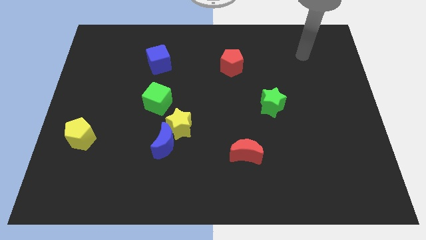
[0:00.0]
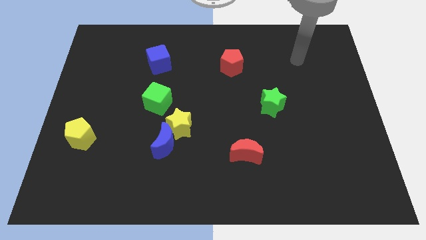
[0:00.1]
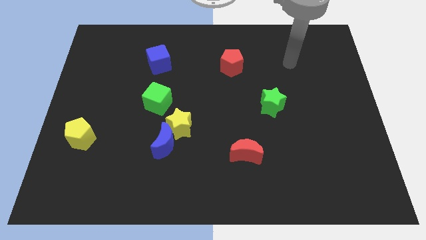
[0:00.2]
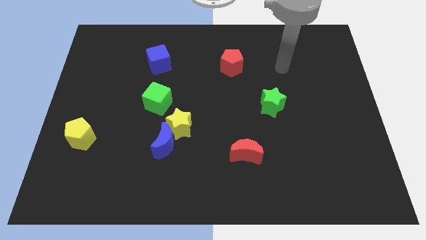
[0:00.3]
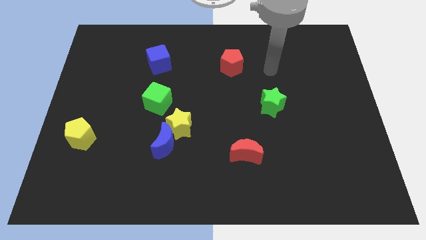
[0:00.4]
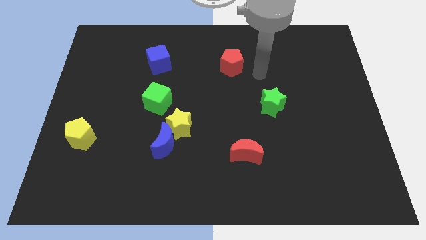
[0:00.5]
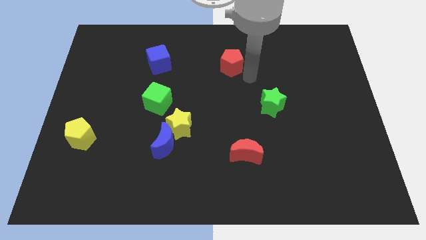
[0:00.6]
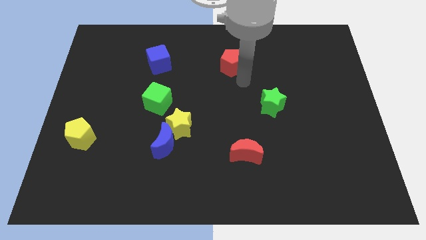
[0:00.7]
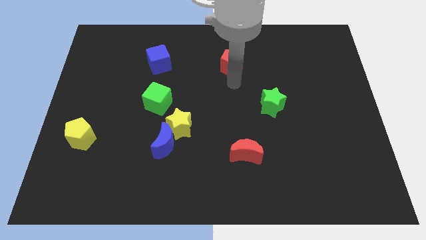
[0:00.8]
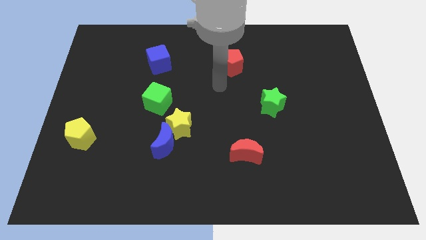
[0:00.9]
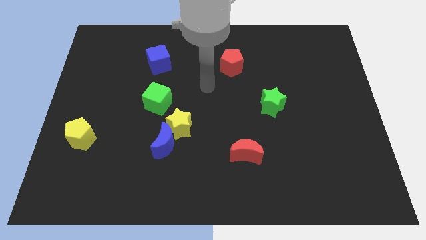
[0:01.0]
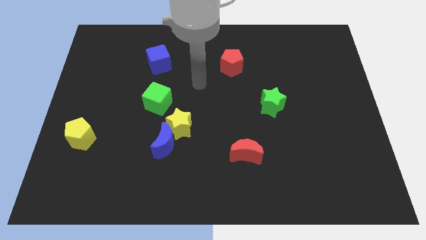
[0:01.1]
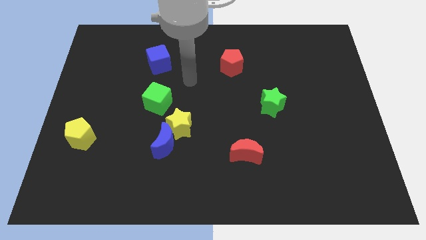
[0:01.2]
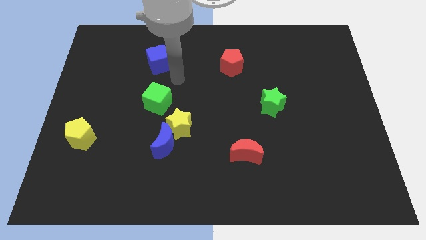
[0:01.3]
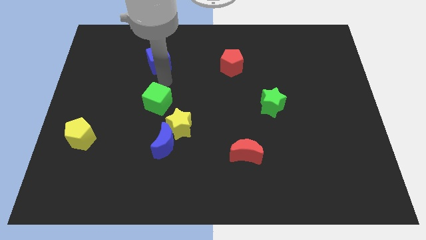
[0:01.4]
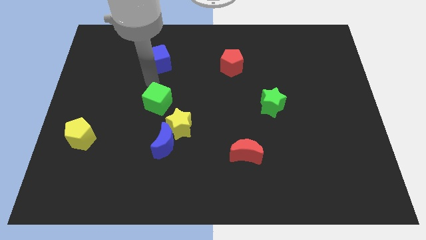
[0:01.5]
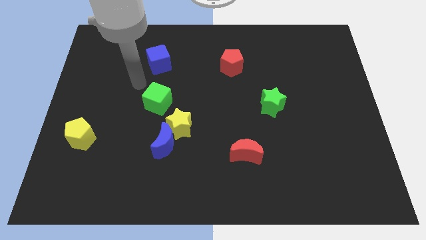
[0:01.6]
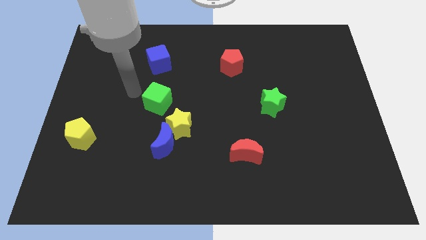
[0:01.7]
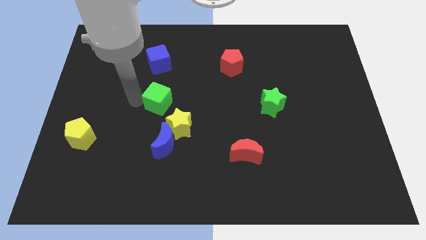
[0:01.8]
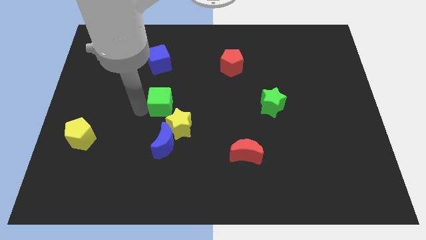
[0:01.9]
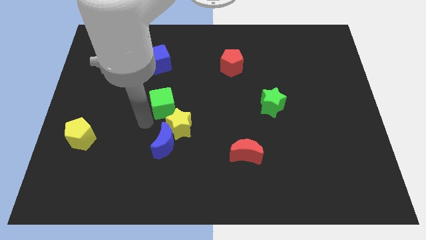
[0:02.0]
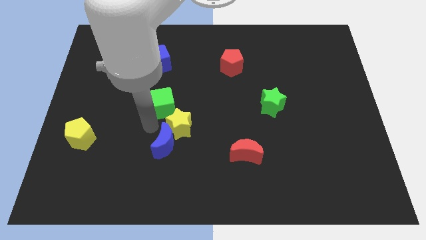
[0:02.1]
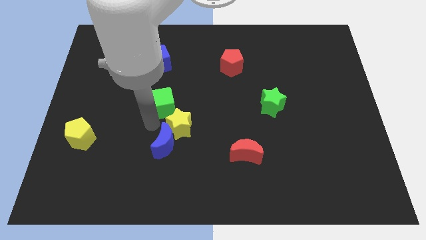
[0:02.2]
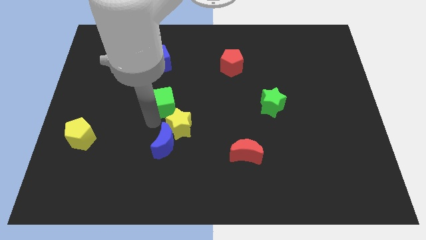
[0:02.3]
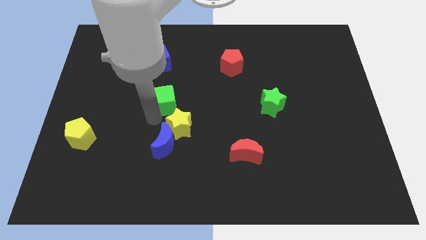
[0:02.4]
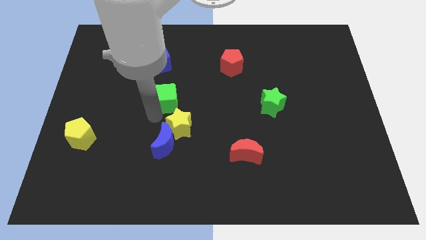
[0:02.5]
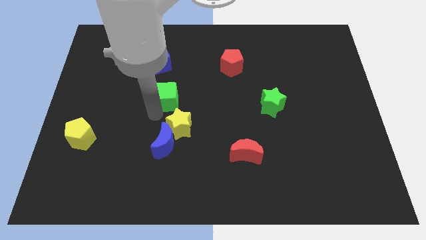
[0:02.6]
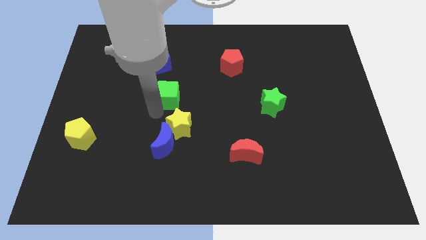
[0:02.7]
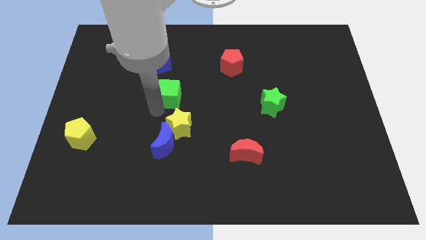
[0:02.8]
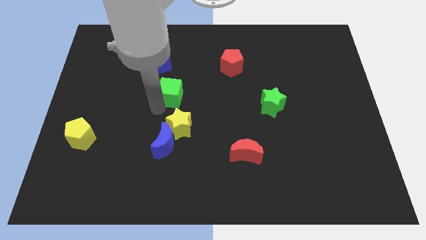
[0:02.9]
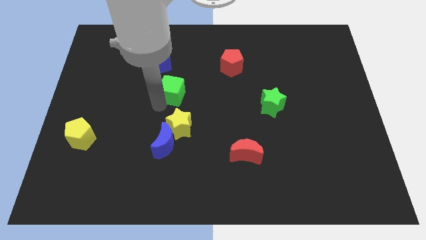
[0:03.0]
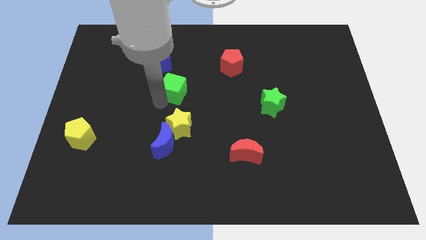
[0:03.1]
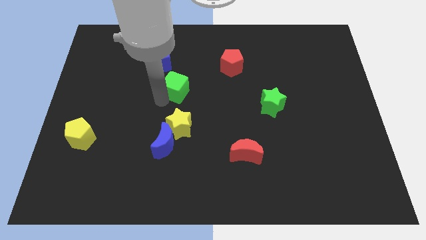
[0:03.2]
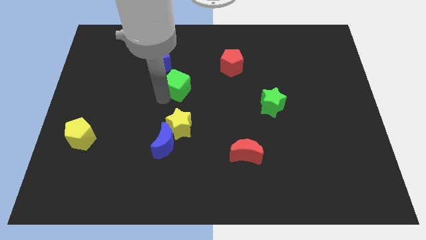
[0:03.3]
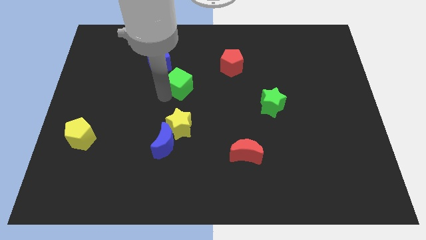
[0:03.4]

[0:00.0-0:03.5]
move the green cube up and to the right diagonally slightly

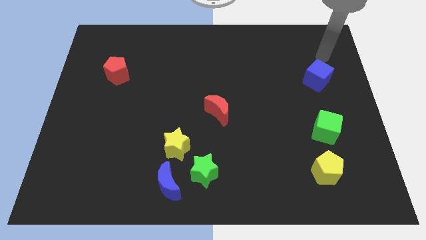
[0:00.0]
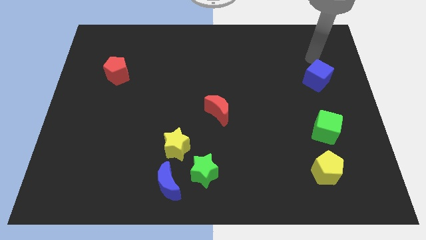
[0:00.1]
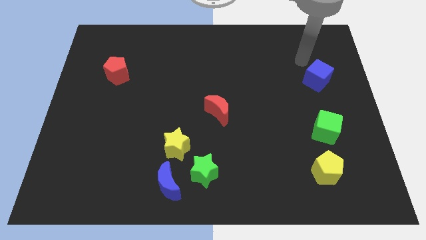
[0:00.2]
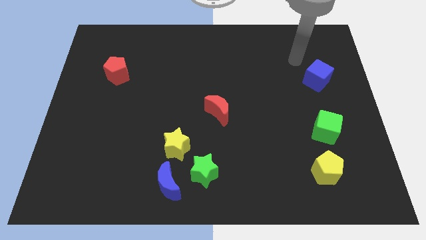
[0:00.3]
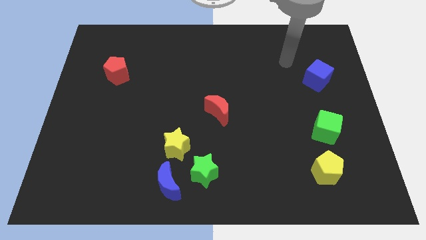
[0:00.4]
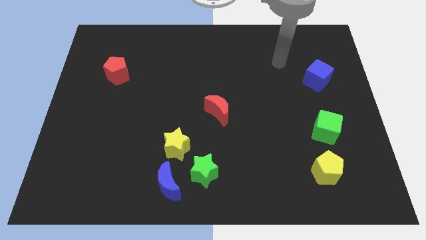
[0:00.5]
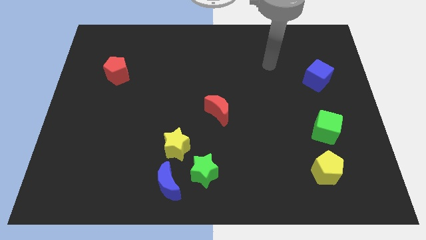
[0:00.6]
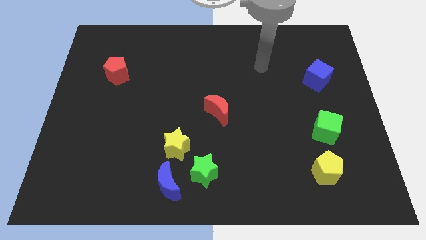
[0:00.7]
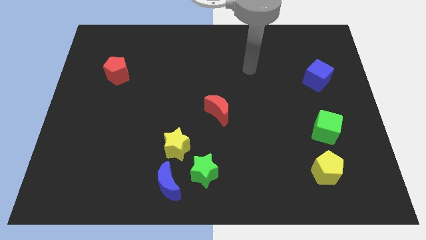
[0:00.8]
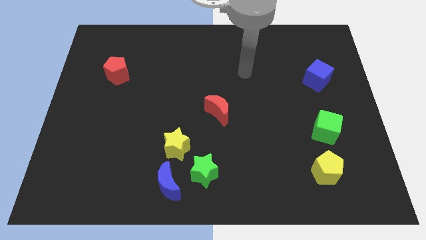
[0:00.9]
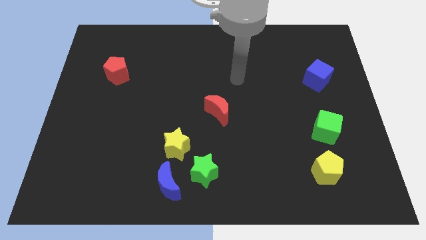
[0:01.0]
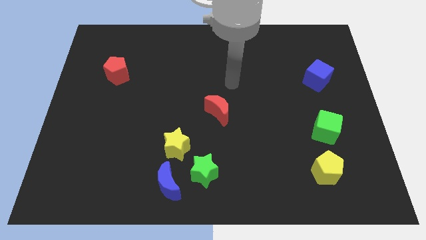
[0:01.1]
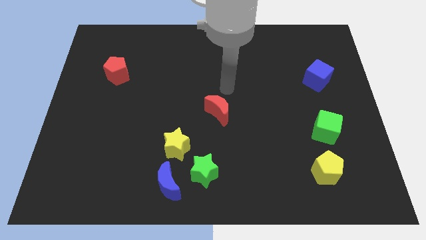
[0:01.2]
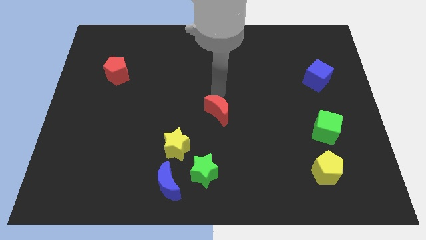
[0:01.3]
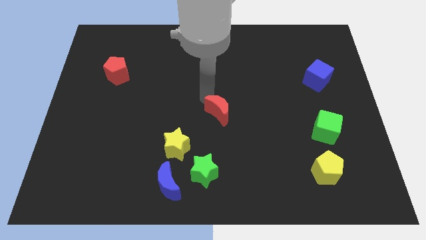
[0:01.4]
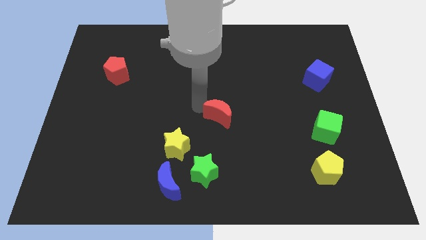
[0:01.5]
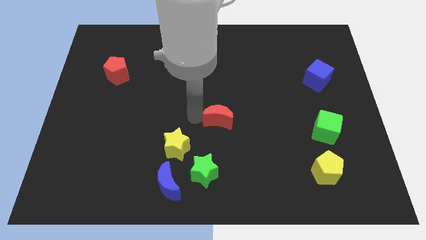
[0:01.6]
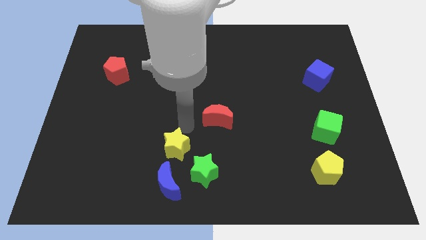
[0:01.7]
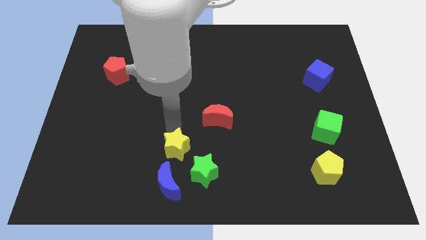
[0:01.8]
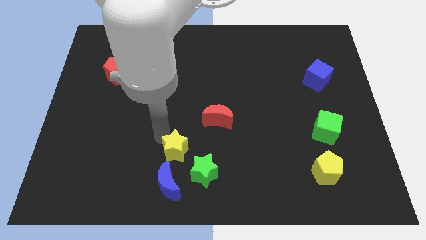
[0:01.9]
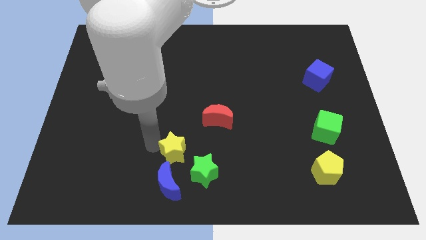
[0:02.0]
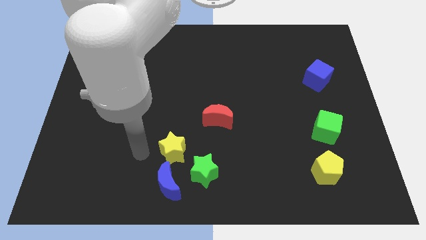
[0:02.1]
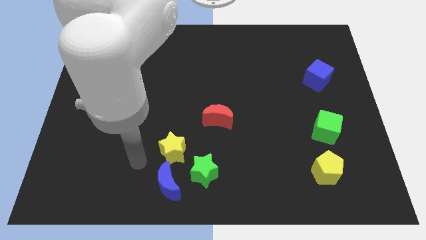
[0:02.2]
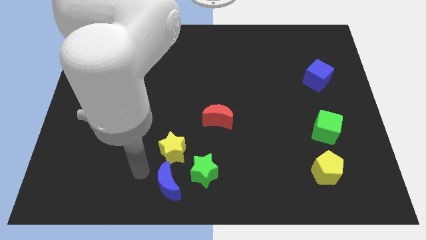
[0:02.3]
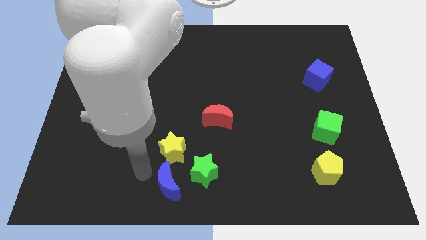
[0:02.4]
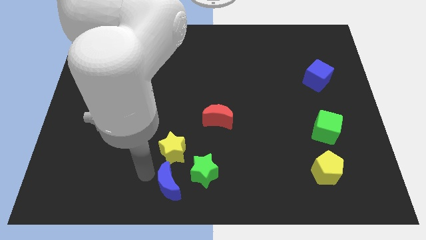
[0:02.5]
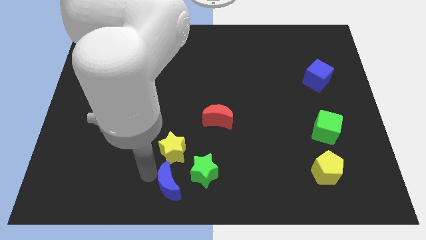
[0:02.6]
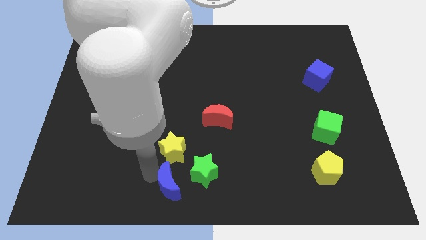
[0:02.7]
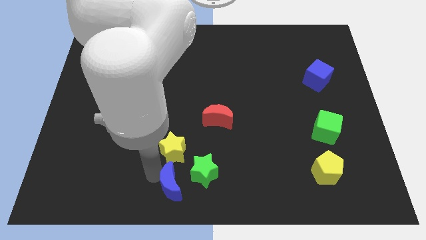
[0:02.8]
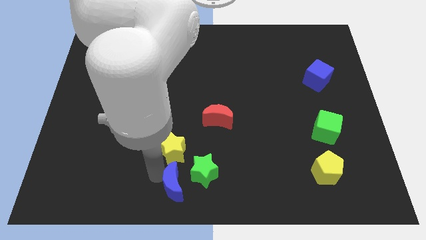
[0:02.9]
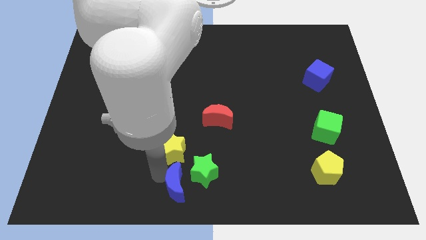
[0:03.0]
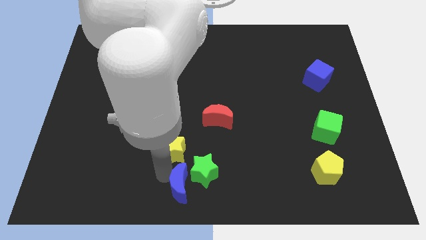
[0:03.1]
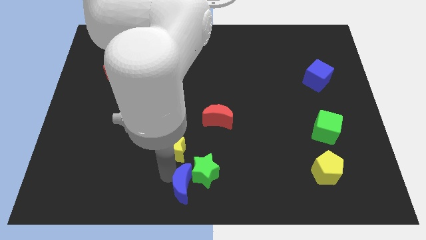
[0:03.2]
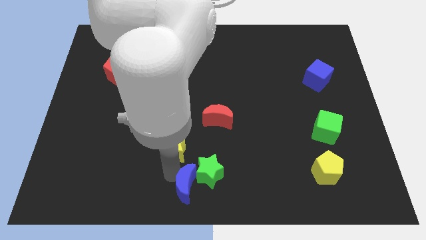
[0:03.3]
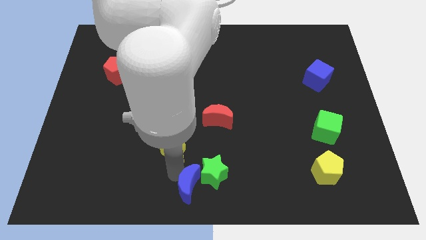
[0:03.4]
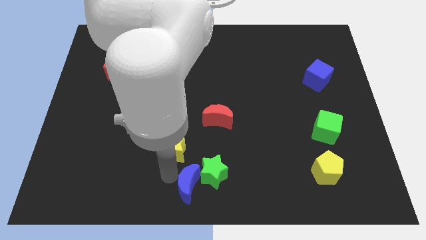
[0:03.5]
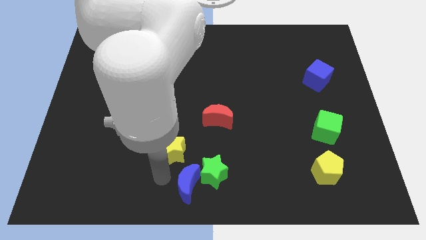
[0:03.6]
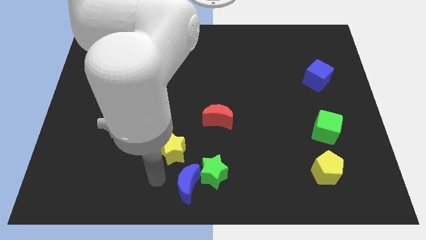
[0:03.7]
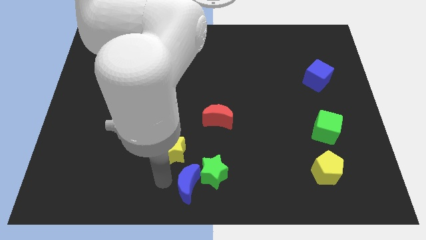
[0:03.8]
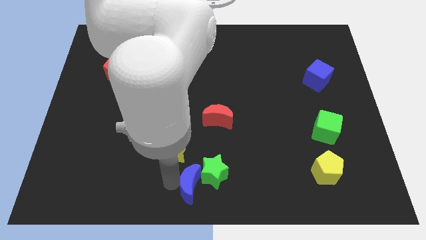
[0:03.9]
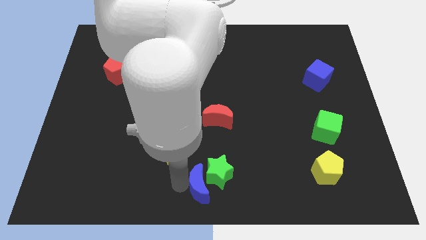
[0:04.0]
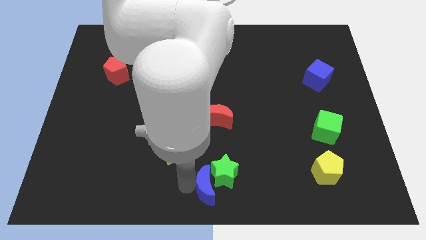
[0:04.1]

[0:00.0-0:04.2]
slide the blue moon slightly to the right

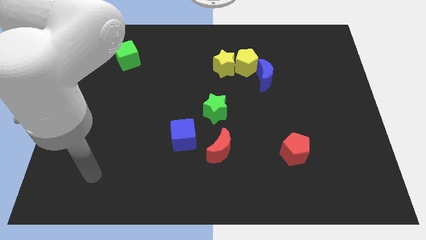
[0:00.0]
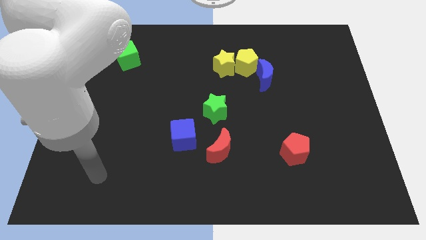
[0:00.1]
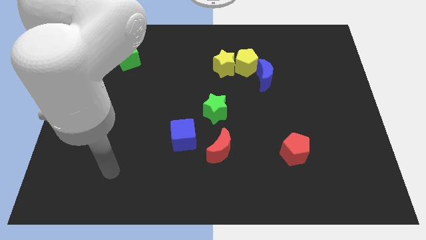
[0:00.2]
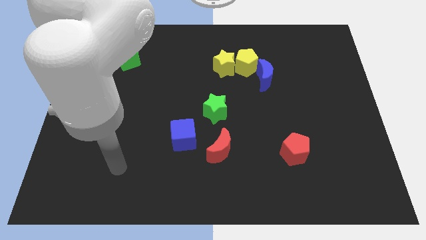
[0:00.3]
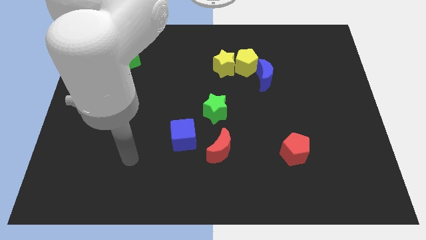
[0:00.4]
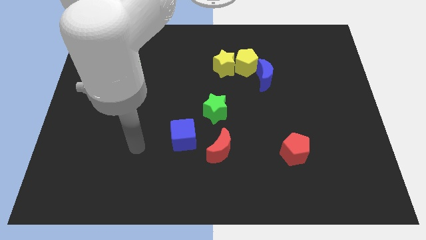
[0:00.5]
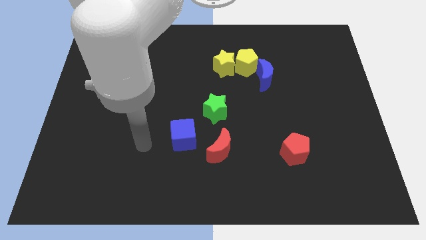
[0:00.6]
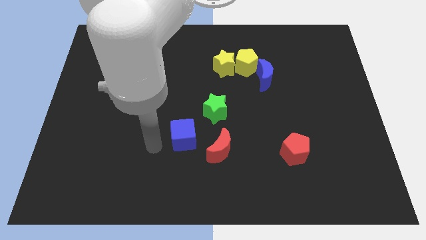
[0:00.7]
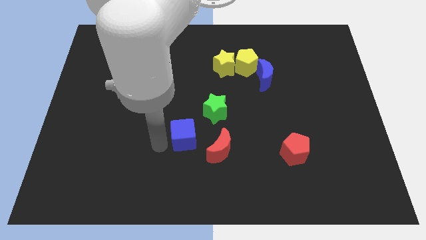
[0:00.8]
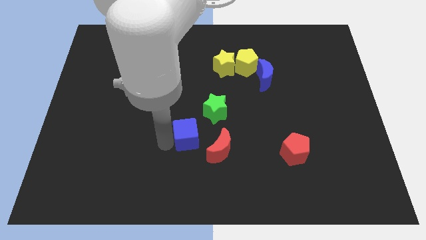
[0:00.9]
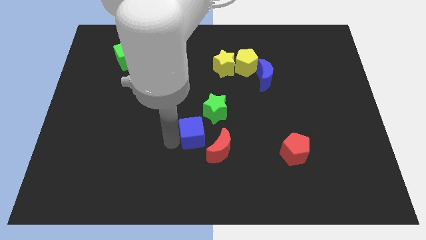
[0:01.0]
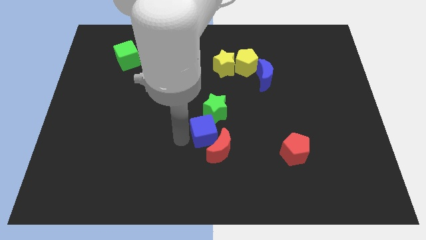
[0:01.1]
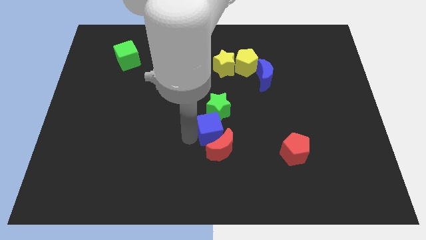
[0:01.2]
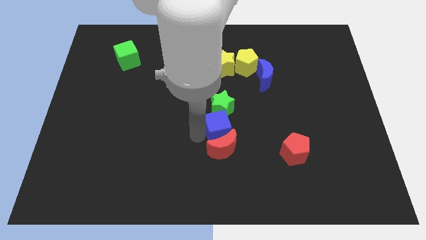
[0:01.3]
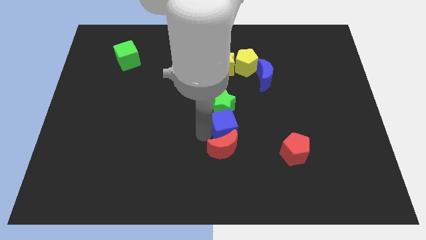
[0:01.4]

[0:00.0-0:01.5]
move the blue cube a bit up and to the right diagonally
